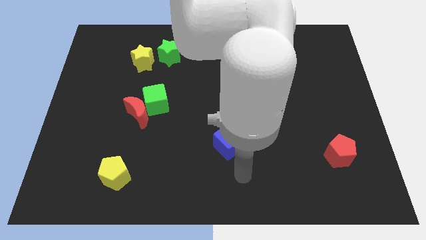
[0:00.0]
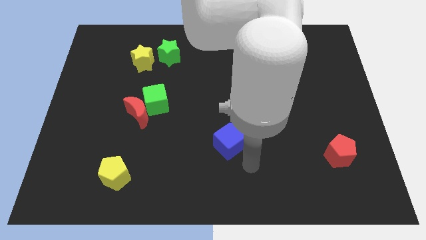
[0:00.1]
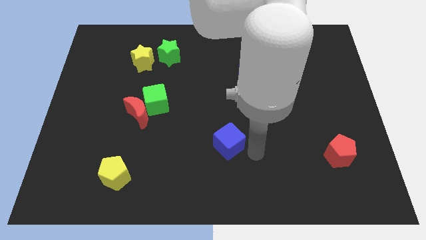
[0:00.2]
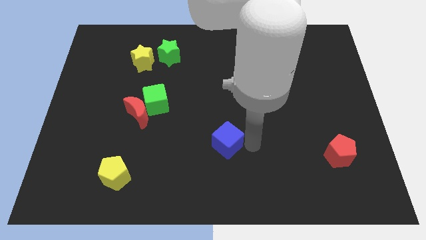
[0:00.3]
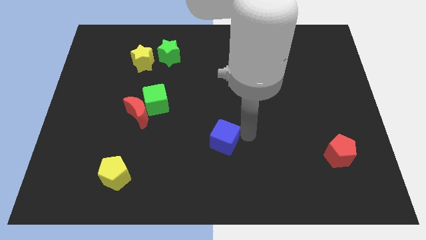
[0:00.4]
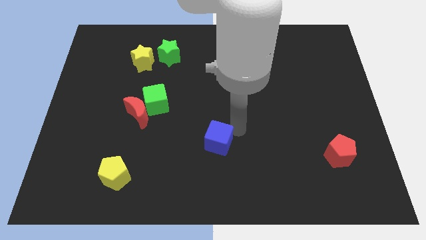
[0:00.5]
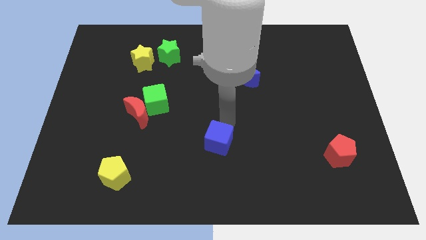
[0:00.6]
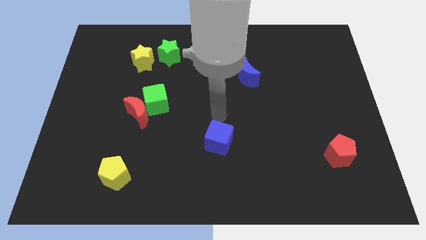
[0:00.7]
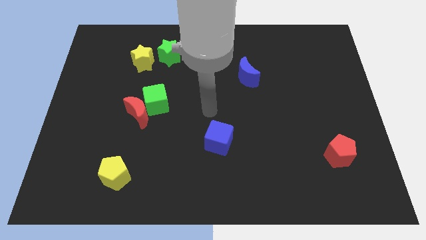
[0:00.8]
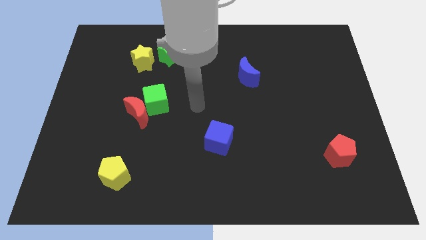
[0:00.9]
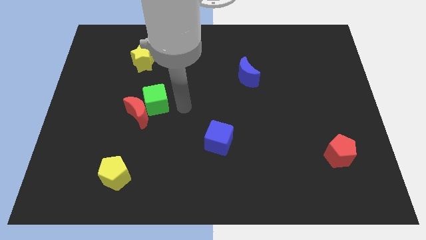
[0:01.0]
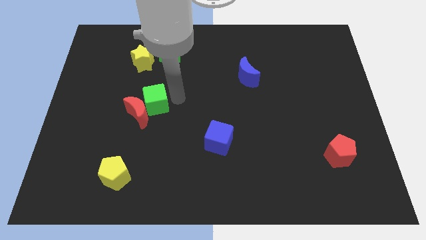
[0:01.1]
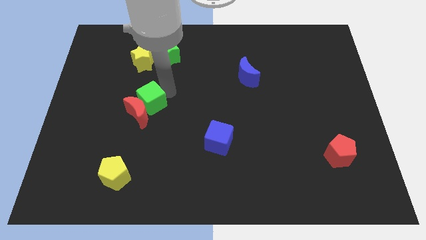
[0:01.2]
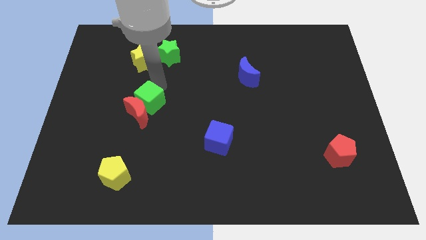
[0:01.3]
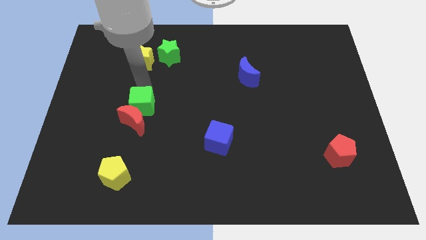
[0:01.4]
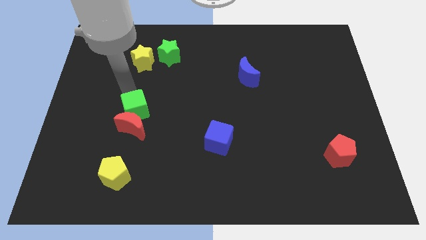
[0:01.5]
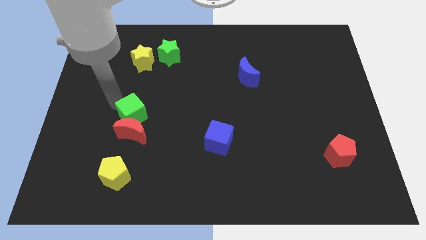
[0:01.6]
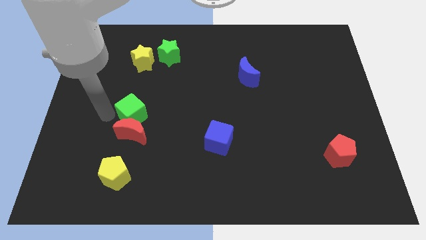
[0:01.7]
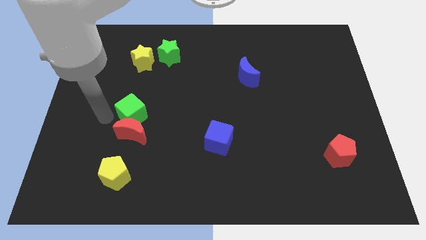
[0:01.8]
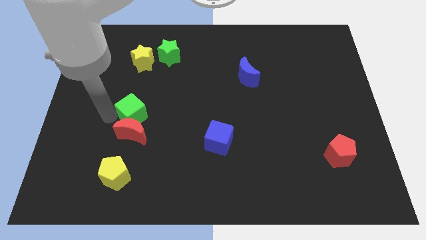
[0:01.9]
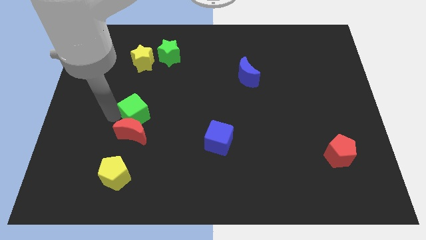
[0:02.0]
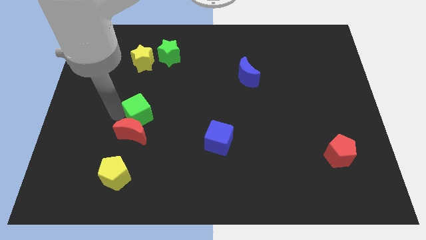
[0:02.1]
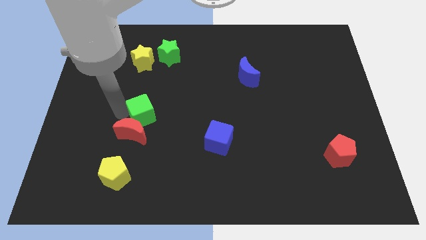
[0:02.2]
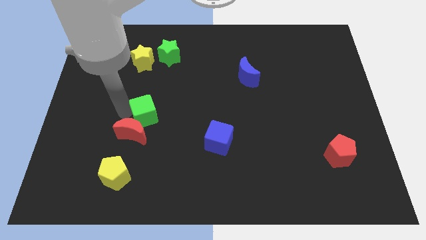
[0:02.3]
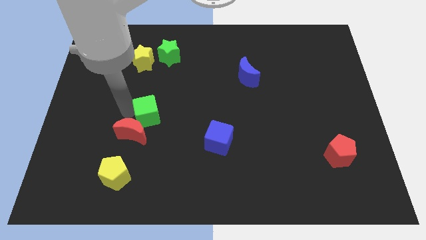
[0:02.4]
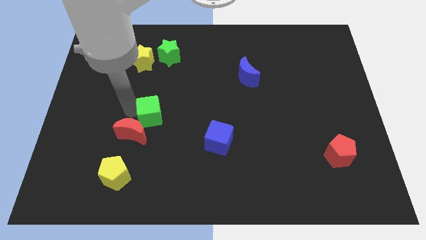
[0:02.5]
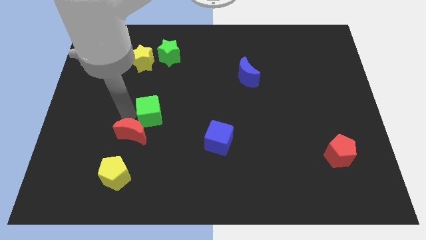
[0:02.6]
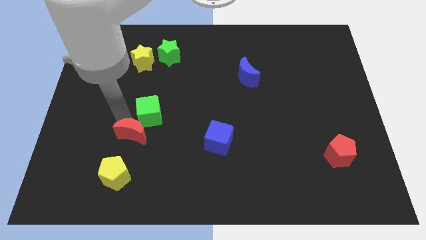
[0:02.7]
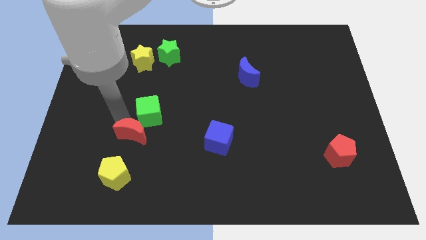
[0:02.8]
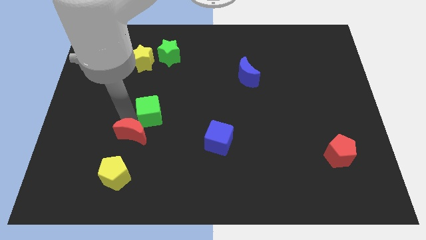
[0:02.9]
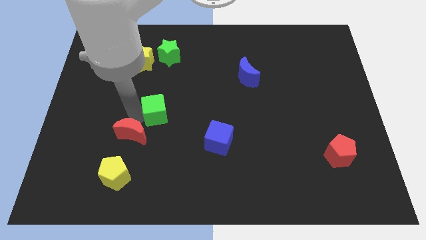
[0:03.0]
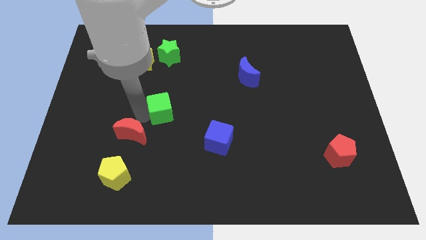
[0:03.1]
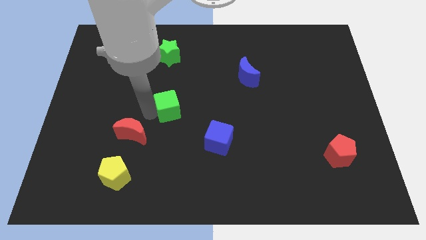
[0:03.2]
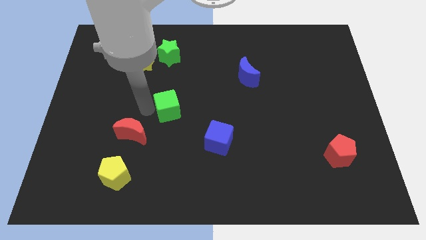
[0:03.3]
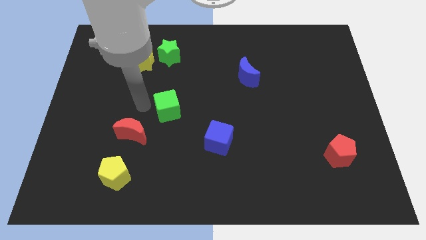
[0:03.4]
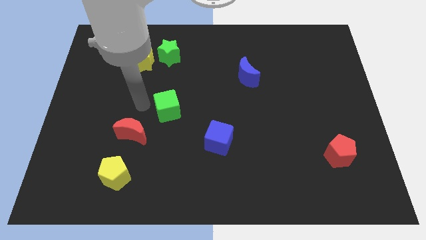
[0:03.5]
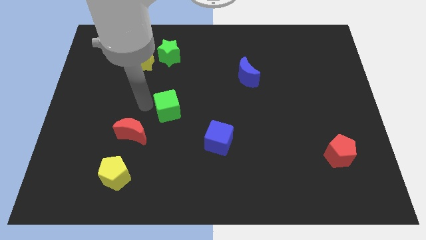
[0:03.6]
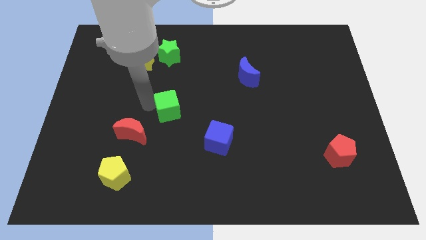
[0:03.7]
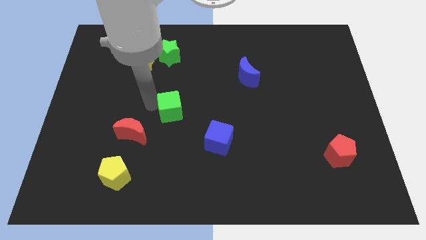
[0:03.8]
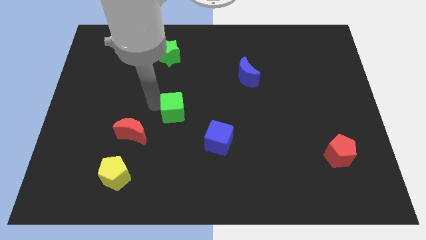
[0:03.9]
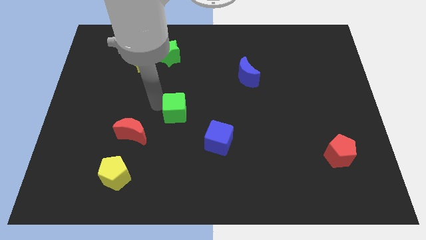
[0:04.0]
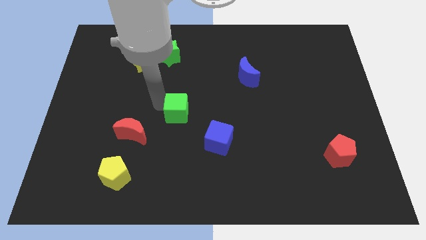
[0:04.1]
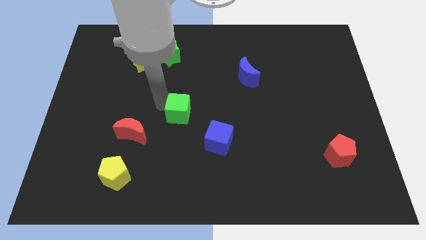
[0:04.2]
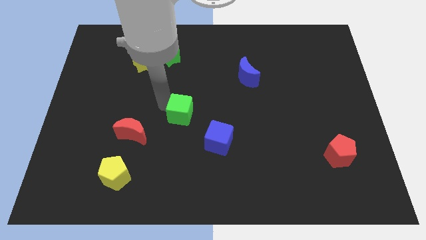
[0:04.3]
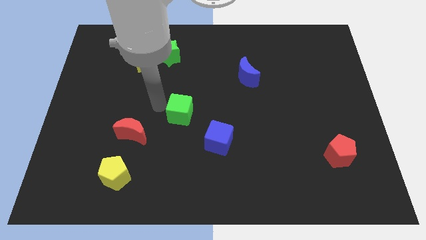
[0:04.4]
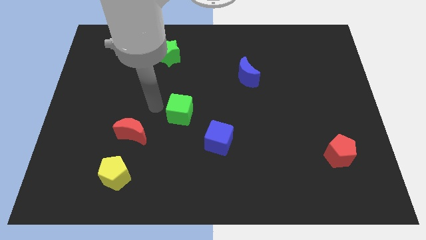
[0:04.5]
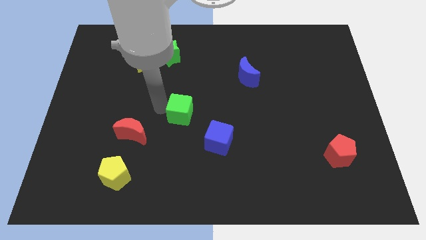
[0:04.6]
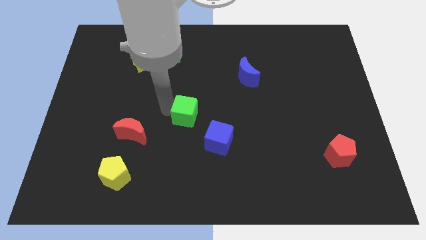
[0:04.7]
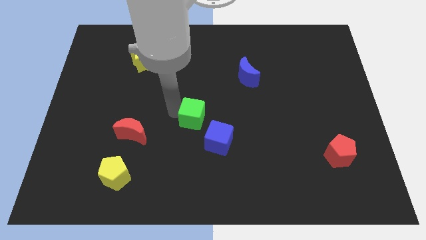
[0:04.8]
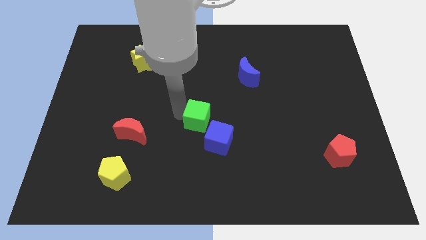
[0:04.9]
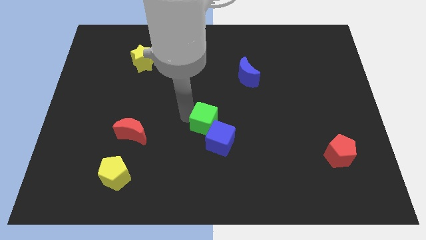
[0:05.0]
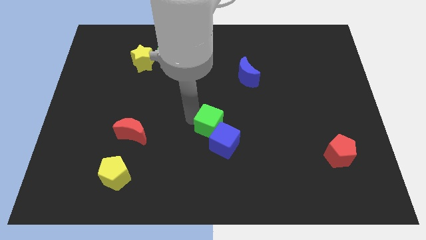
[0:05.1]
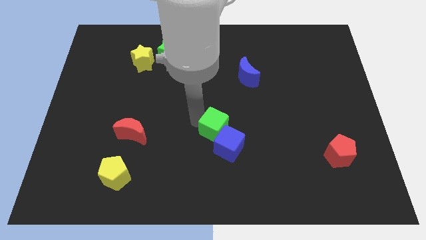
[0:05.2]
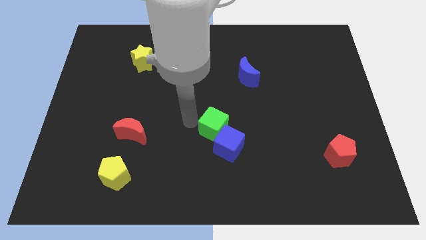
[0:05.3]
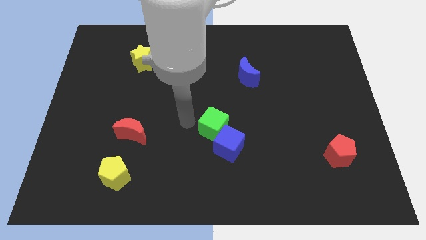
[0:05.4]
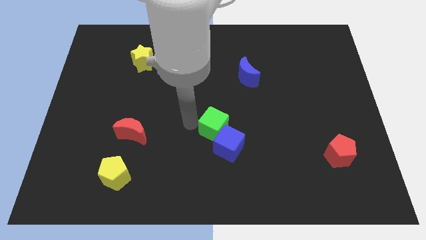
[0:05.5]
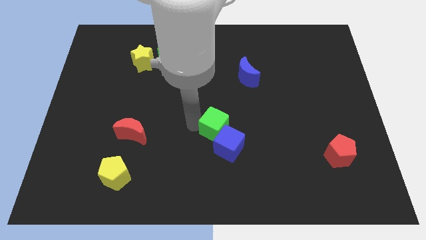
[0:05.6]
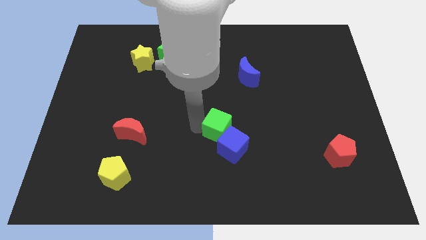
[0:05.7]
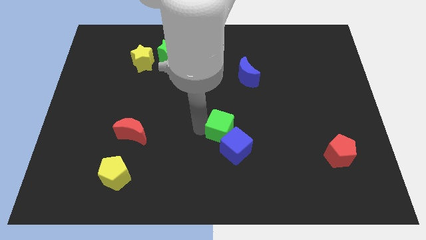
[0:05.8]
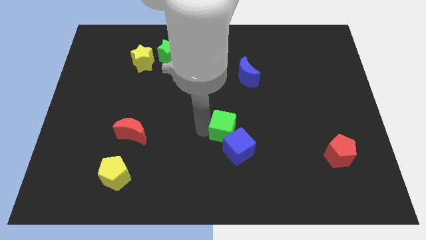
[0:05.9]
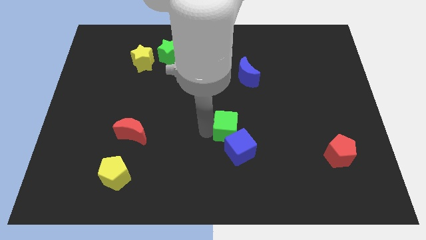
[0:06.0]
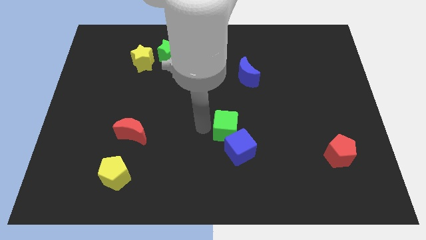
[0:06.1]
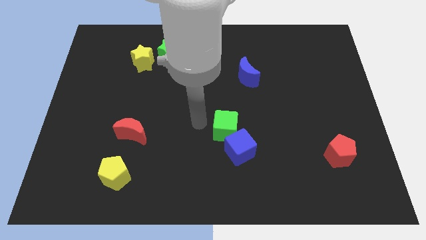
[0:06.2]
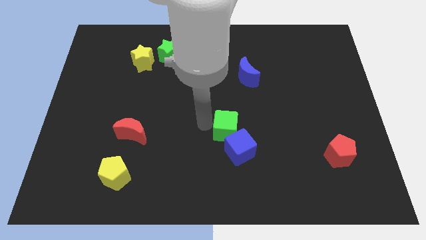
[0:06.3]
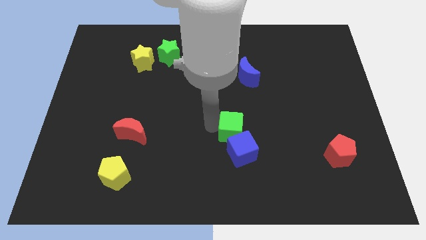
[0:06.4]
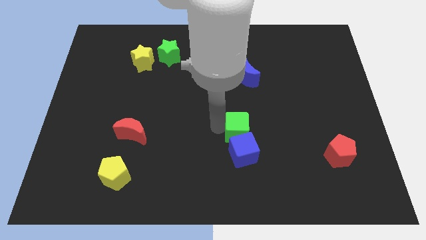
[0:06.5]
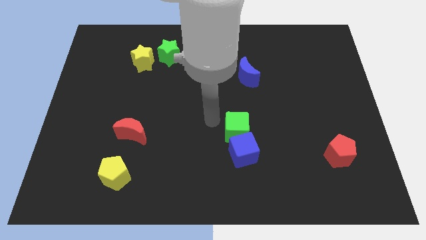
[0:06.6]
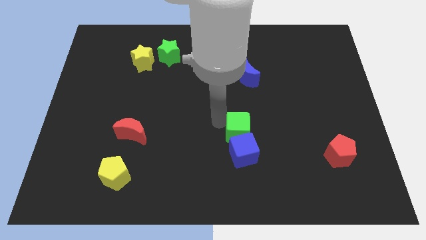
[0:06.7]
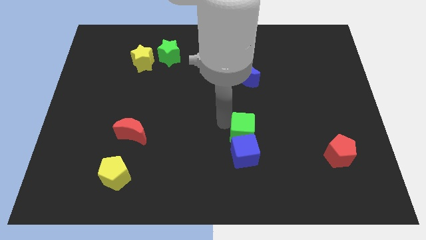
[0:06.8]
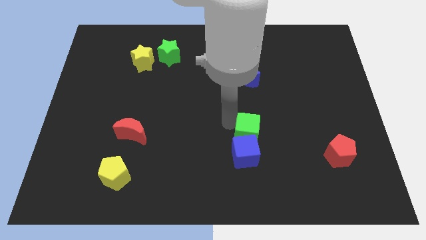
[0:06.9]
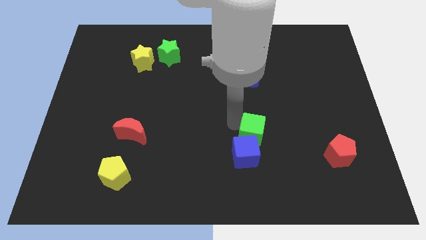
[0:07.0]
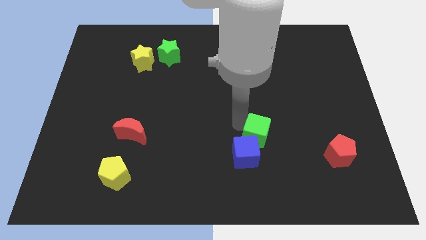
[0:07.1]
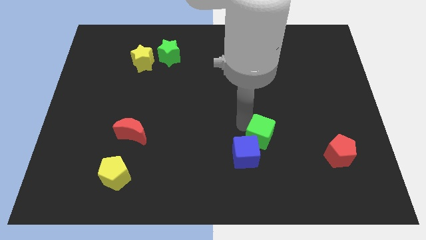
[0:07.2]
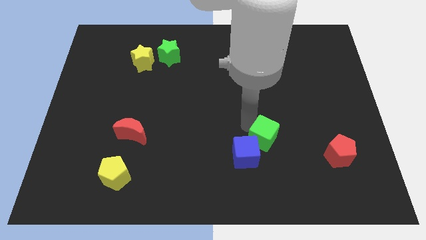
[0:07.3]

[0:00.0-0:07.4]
slide the green cube right of the blue cube
